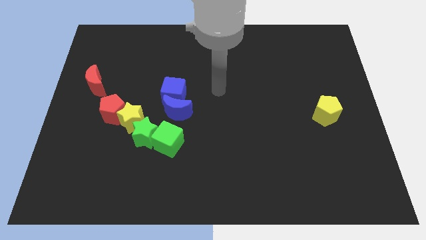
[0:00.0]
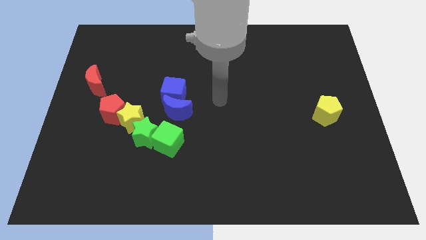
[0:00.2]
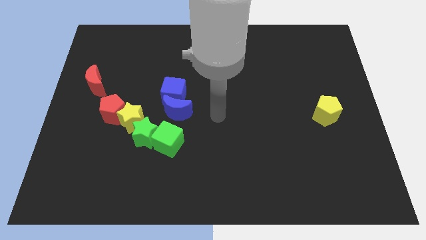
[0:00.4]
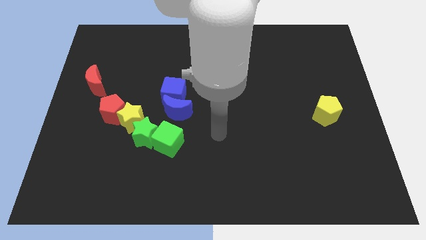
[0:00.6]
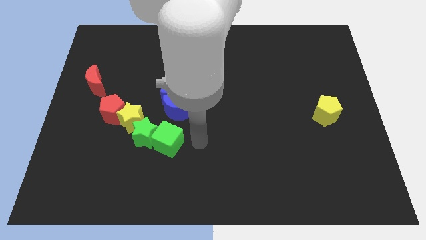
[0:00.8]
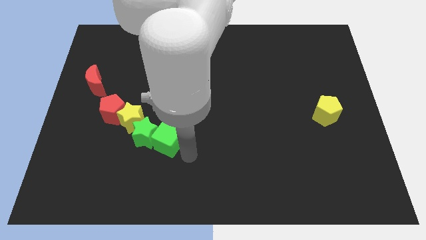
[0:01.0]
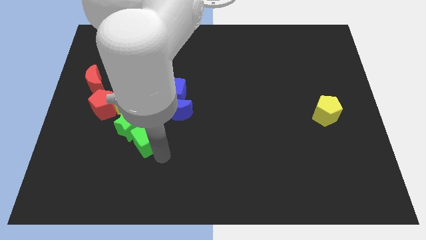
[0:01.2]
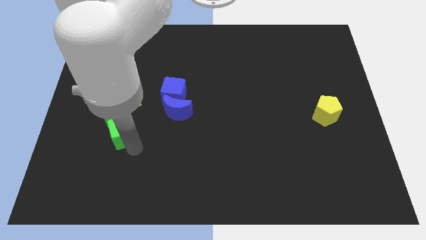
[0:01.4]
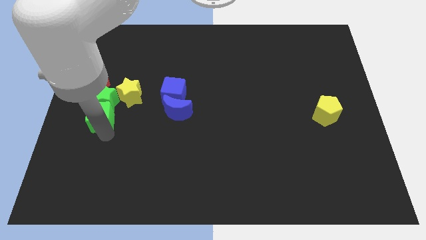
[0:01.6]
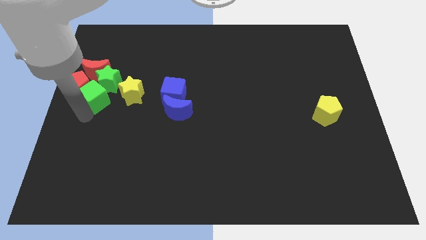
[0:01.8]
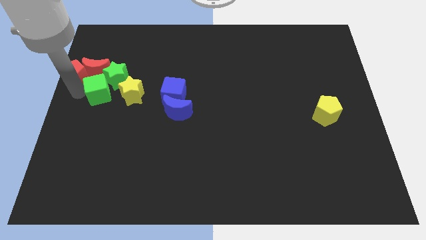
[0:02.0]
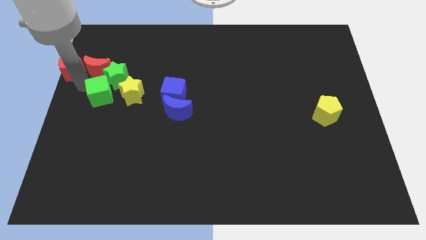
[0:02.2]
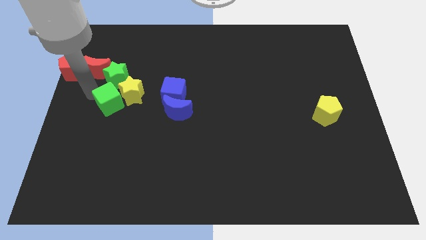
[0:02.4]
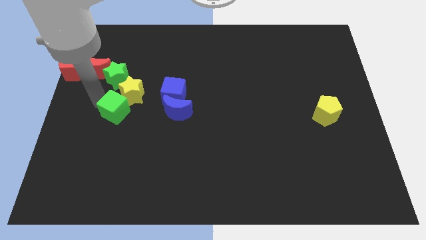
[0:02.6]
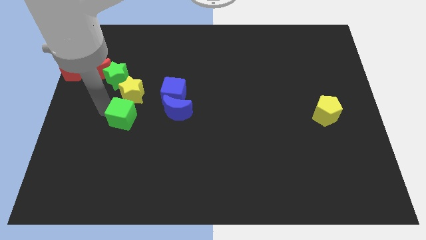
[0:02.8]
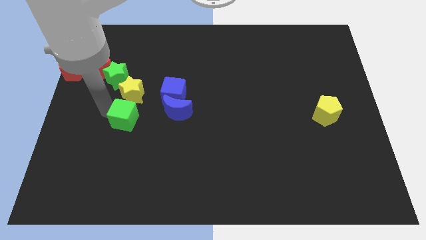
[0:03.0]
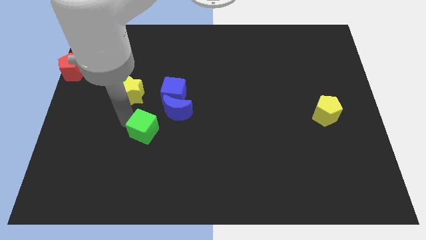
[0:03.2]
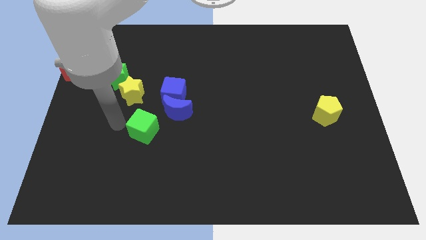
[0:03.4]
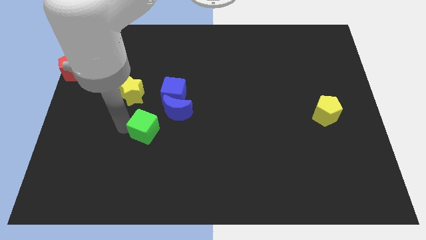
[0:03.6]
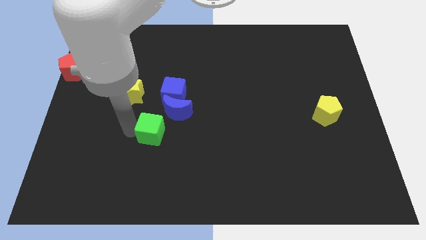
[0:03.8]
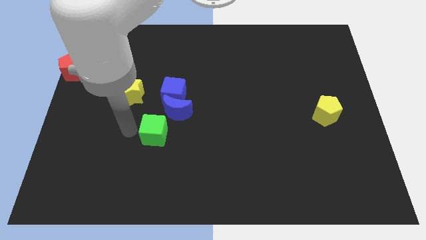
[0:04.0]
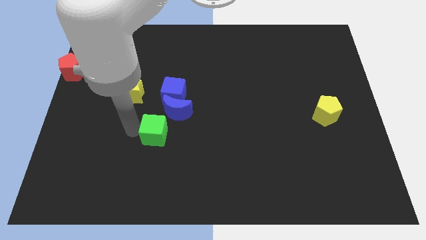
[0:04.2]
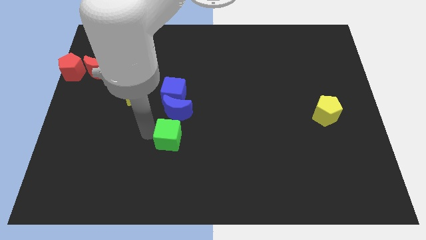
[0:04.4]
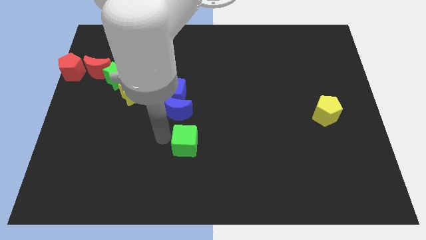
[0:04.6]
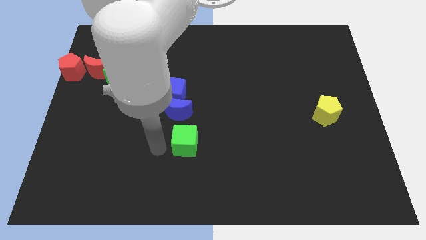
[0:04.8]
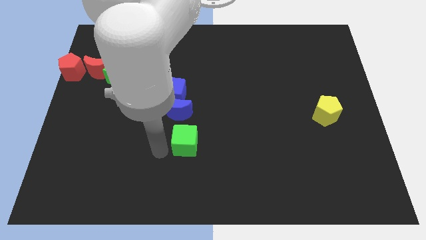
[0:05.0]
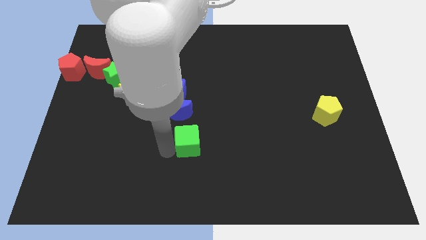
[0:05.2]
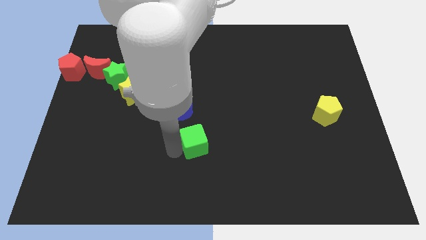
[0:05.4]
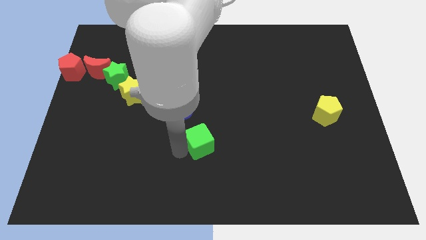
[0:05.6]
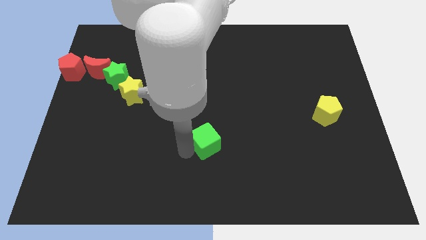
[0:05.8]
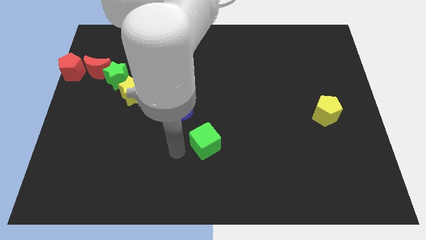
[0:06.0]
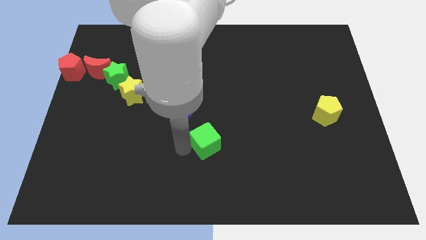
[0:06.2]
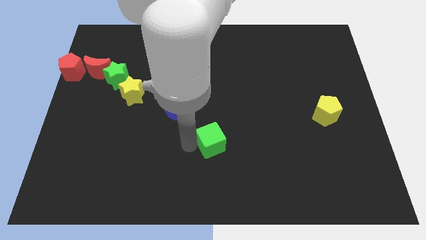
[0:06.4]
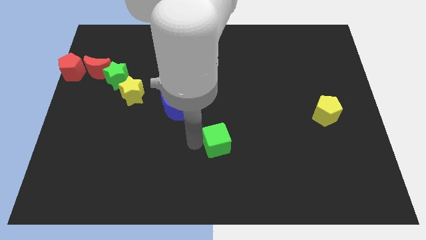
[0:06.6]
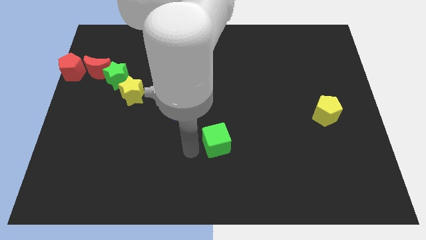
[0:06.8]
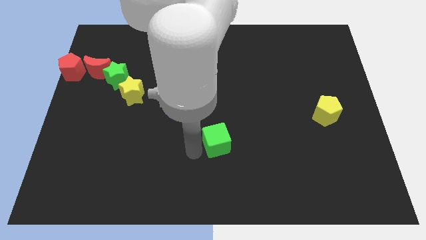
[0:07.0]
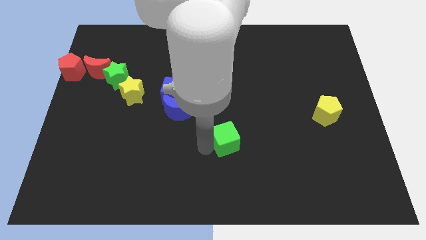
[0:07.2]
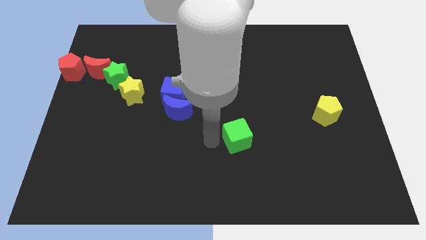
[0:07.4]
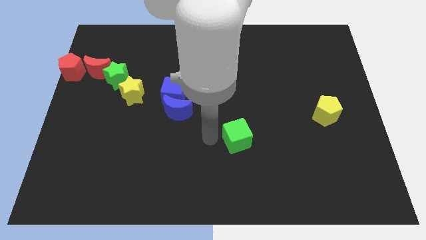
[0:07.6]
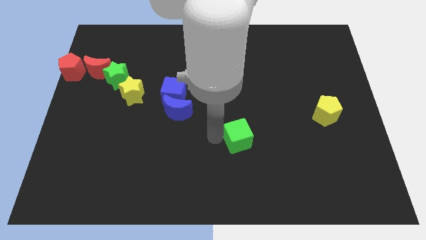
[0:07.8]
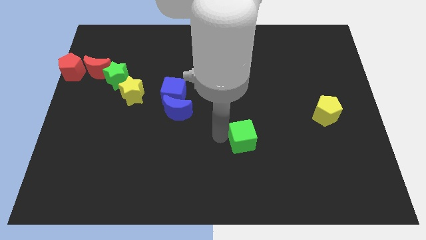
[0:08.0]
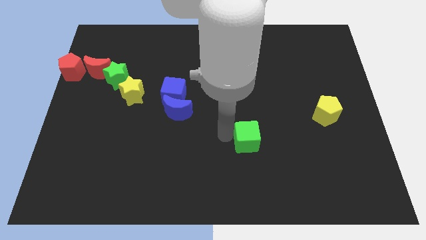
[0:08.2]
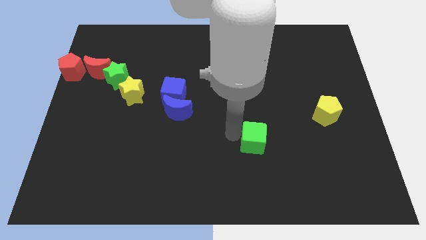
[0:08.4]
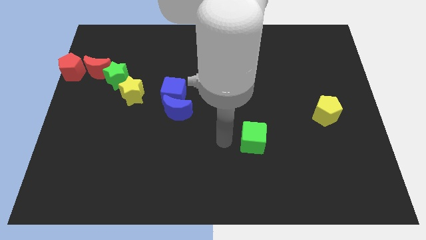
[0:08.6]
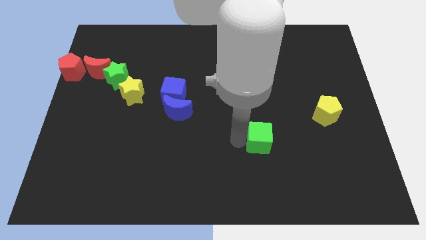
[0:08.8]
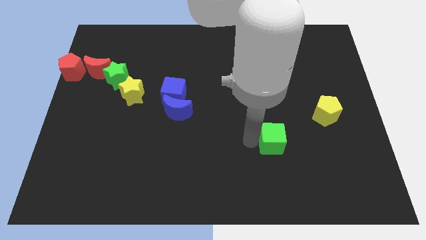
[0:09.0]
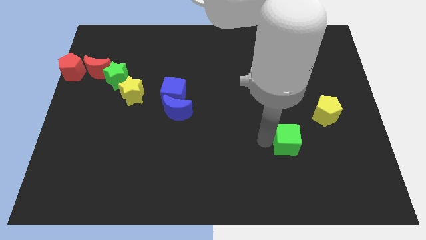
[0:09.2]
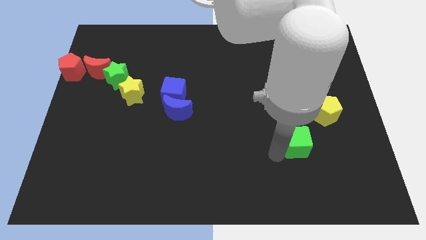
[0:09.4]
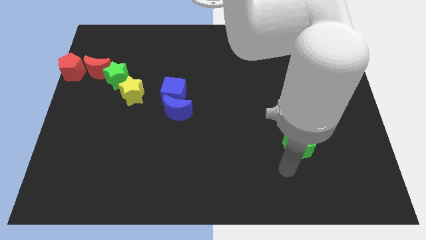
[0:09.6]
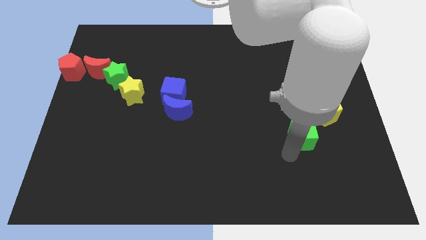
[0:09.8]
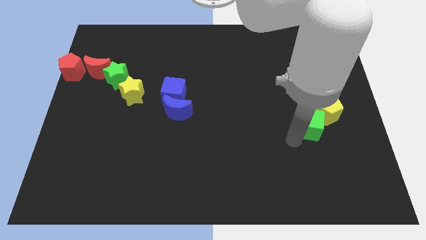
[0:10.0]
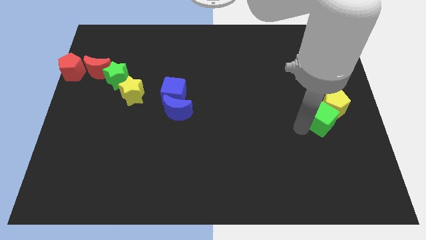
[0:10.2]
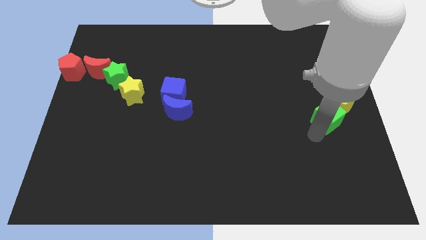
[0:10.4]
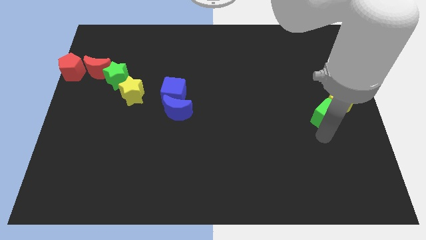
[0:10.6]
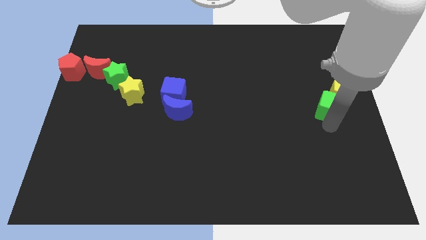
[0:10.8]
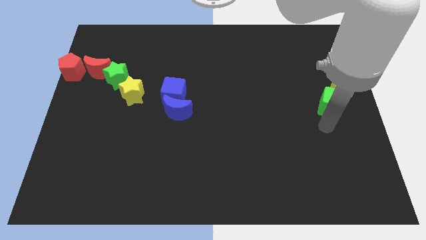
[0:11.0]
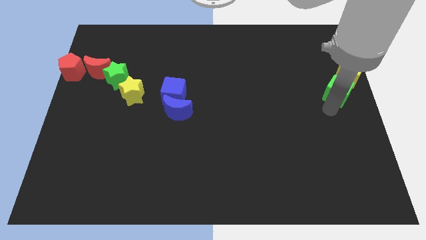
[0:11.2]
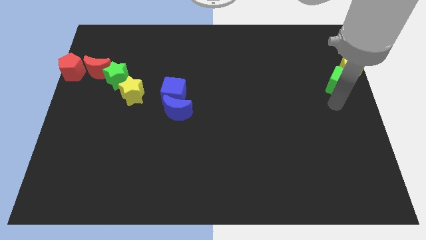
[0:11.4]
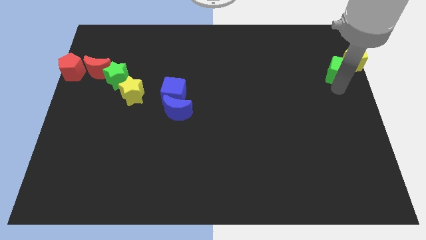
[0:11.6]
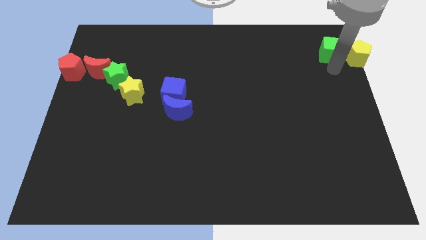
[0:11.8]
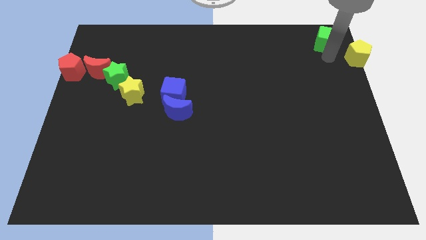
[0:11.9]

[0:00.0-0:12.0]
push the green cube to the top right
